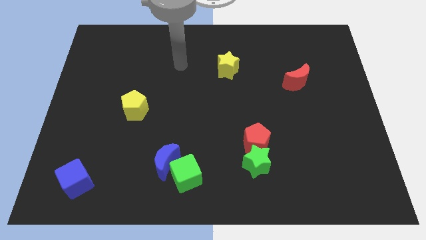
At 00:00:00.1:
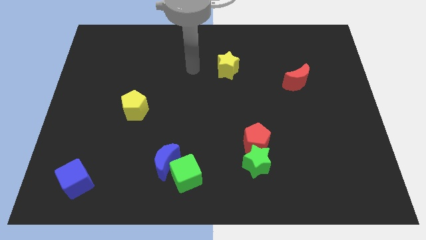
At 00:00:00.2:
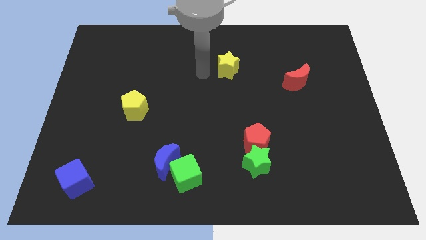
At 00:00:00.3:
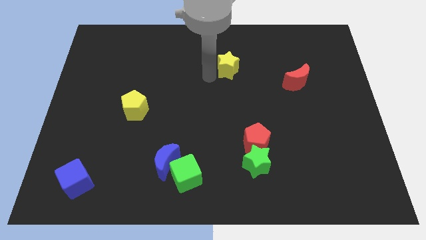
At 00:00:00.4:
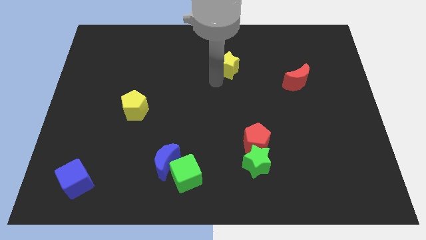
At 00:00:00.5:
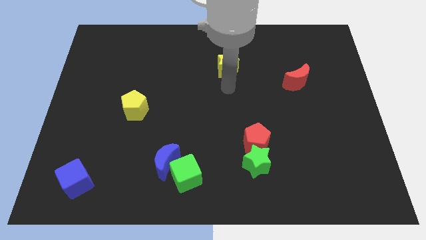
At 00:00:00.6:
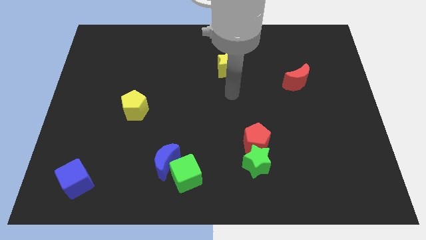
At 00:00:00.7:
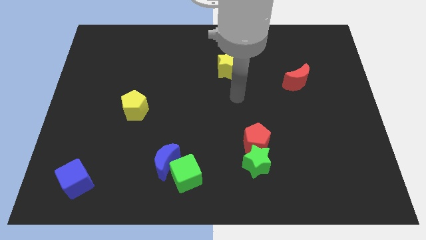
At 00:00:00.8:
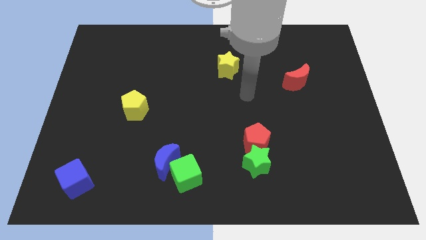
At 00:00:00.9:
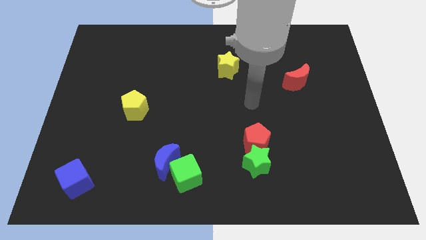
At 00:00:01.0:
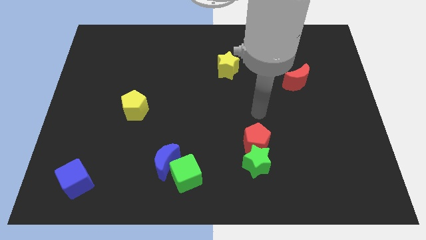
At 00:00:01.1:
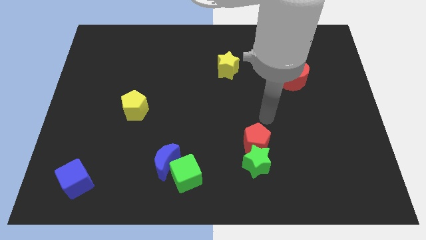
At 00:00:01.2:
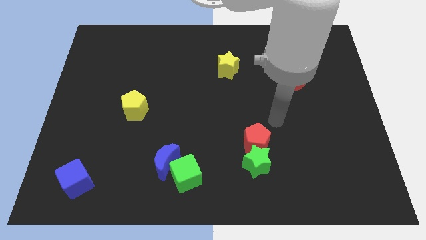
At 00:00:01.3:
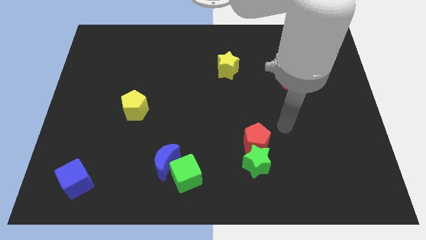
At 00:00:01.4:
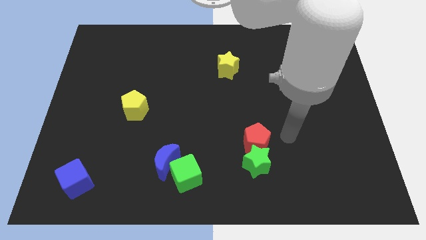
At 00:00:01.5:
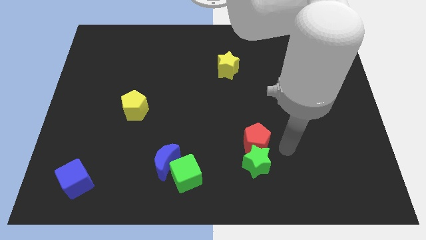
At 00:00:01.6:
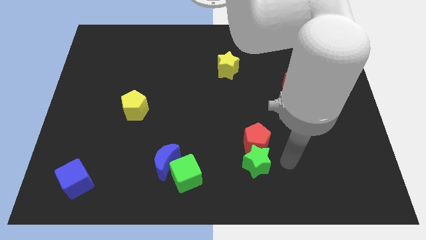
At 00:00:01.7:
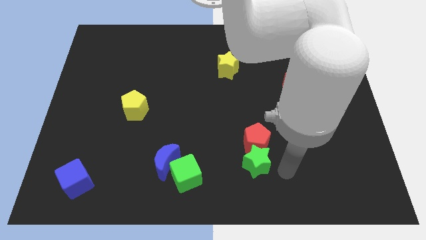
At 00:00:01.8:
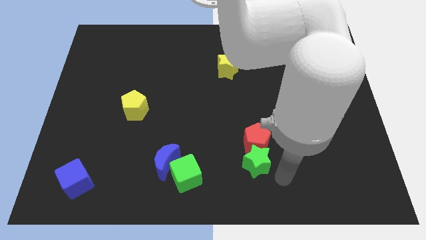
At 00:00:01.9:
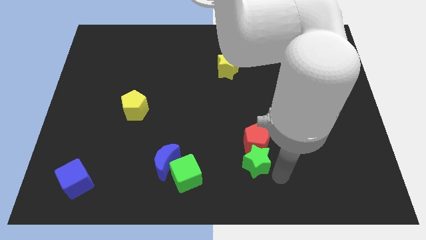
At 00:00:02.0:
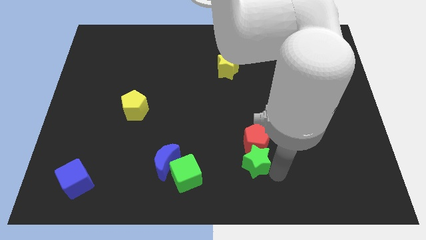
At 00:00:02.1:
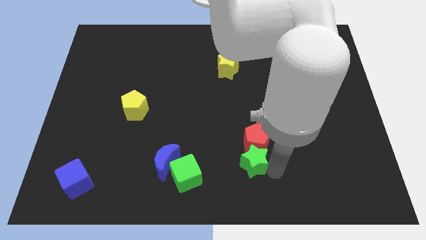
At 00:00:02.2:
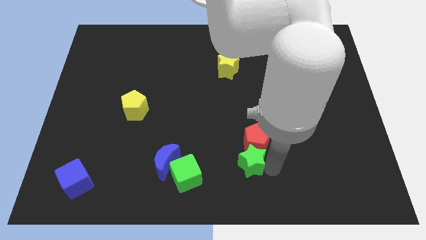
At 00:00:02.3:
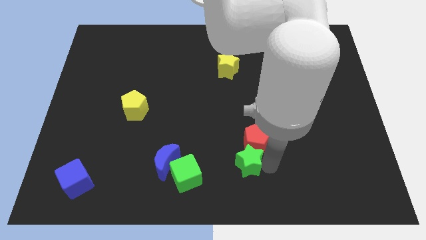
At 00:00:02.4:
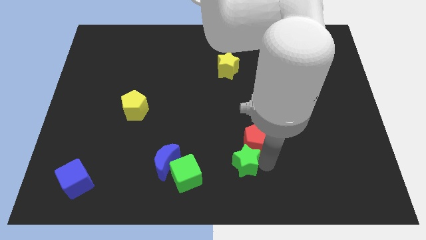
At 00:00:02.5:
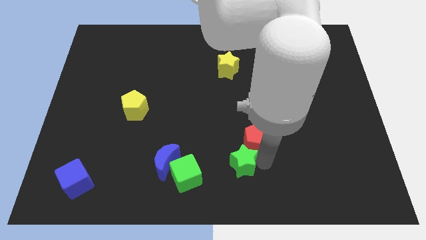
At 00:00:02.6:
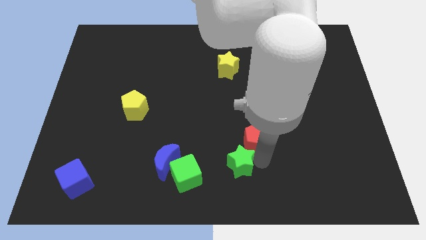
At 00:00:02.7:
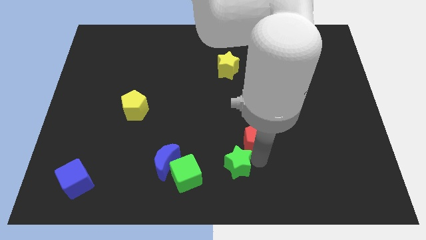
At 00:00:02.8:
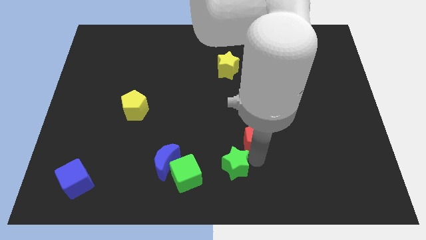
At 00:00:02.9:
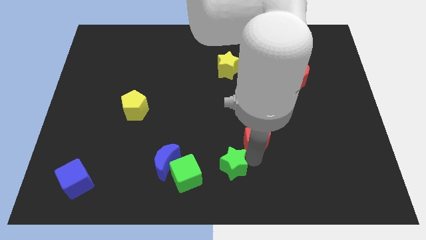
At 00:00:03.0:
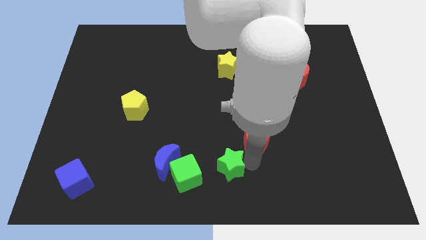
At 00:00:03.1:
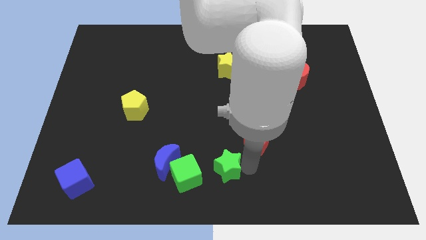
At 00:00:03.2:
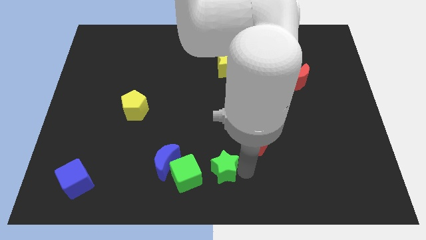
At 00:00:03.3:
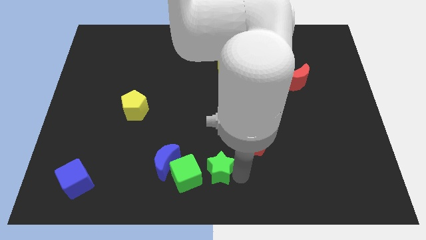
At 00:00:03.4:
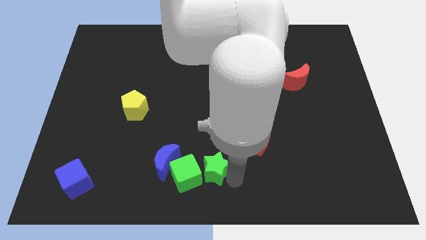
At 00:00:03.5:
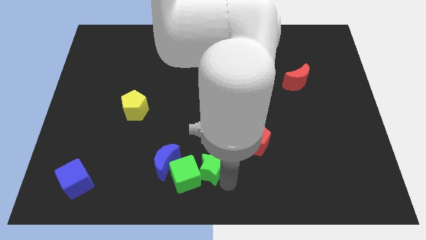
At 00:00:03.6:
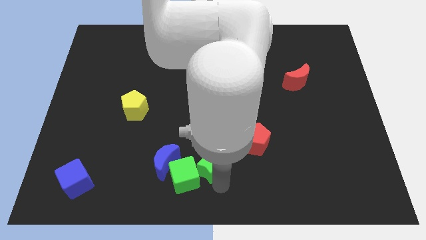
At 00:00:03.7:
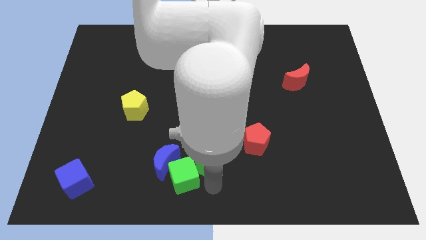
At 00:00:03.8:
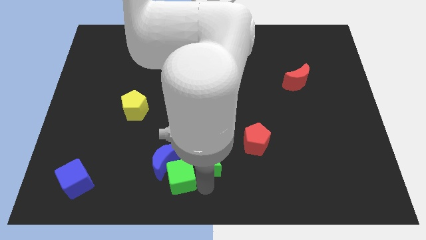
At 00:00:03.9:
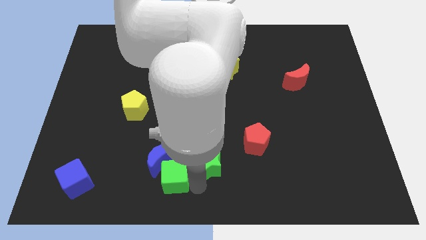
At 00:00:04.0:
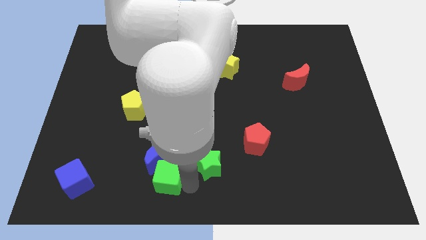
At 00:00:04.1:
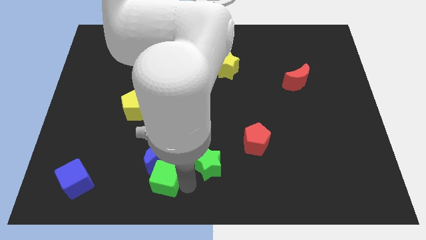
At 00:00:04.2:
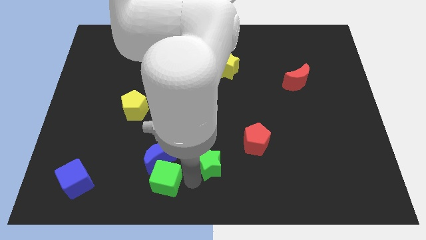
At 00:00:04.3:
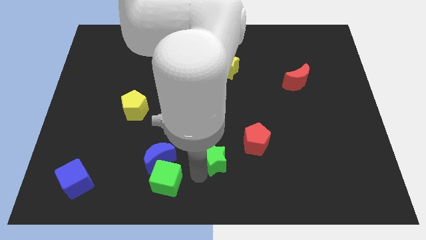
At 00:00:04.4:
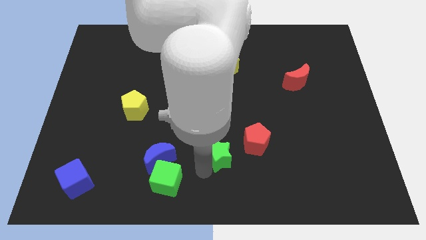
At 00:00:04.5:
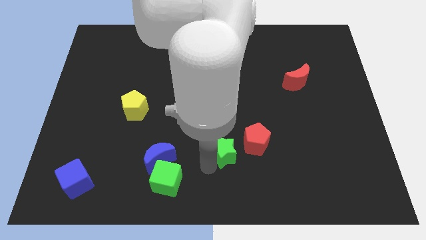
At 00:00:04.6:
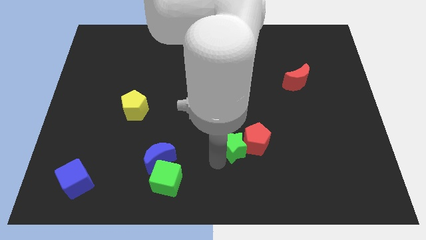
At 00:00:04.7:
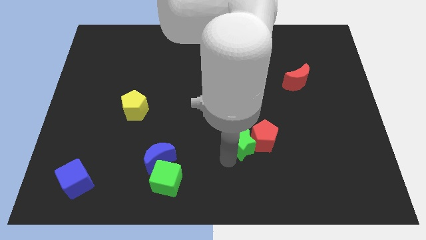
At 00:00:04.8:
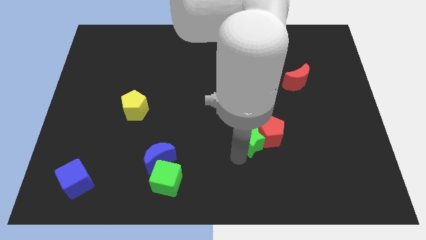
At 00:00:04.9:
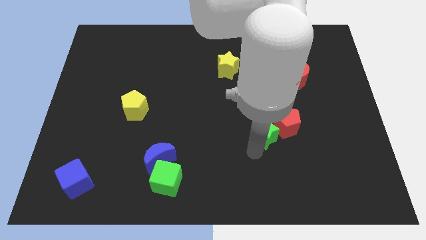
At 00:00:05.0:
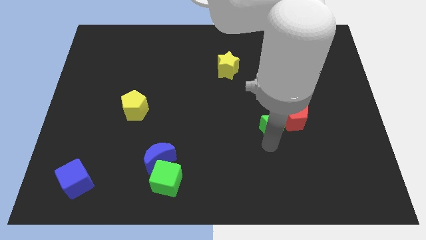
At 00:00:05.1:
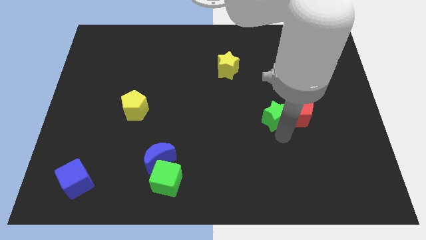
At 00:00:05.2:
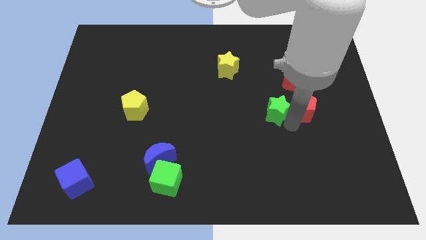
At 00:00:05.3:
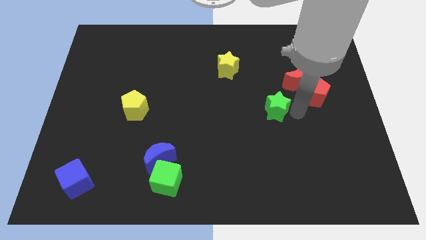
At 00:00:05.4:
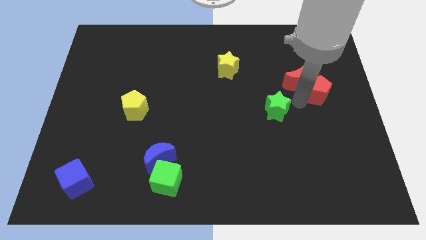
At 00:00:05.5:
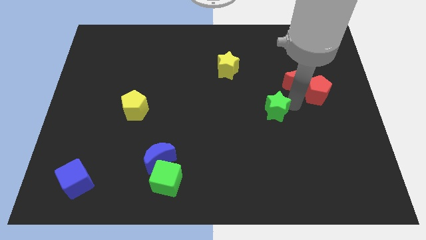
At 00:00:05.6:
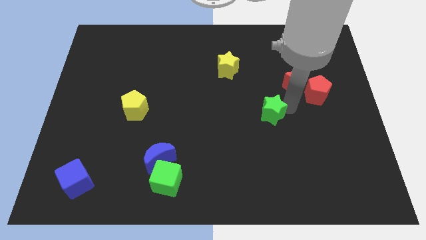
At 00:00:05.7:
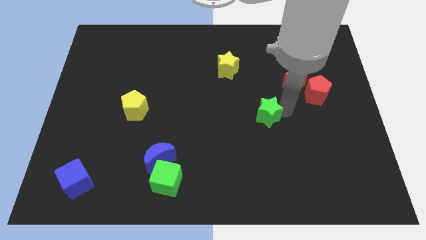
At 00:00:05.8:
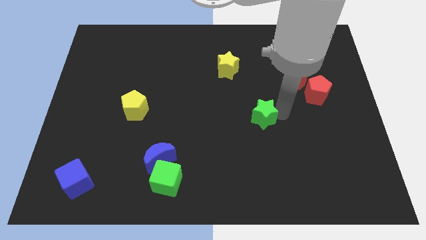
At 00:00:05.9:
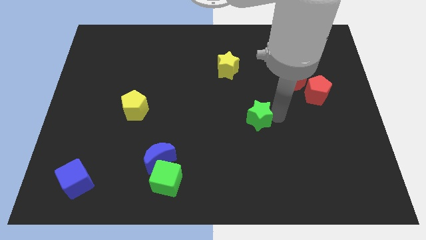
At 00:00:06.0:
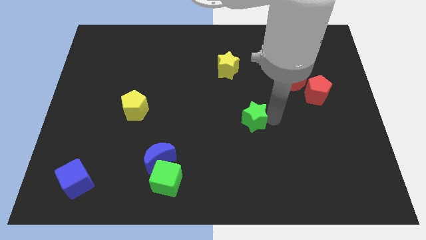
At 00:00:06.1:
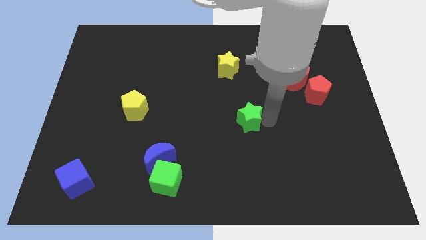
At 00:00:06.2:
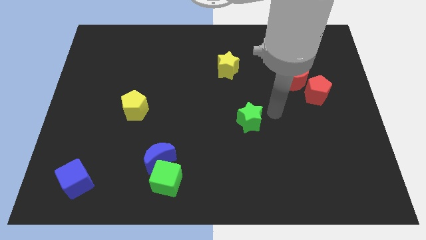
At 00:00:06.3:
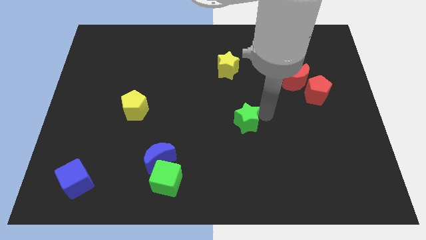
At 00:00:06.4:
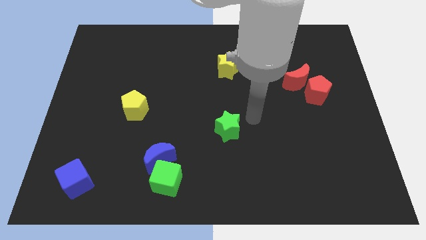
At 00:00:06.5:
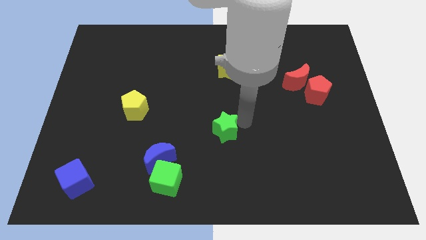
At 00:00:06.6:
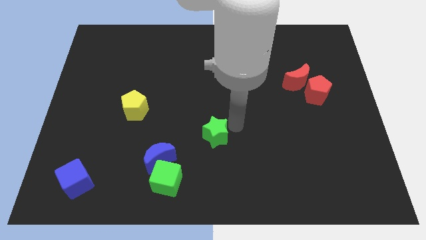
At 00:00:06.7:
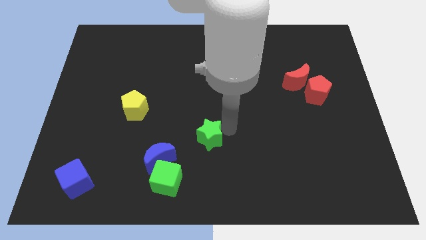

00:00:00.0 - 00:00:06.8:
move the green star to the top right side of the blue moon
